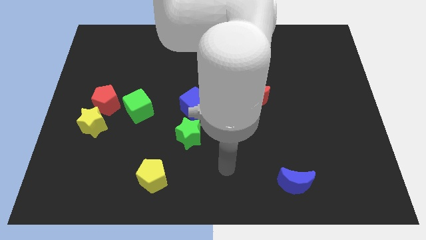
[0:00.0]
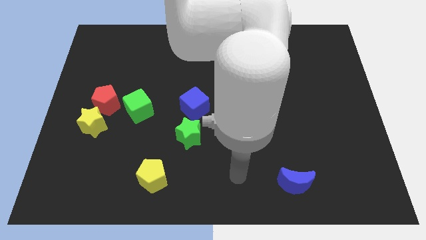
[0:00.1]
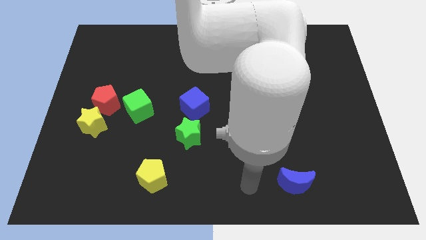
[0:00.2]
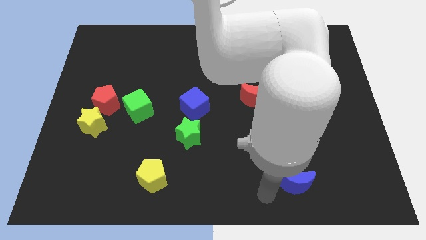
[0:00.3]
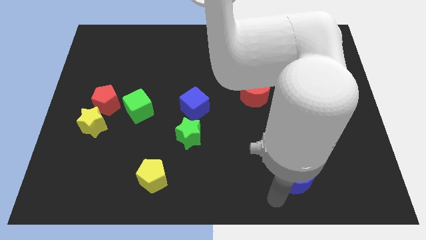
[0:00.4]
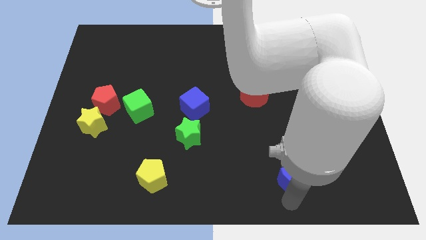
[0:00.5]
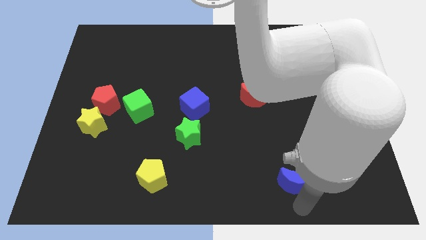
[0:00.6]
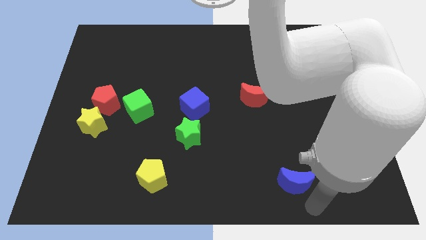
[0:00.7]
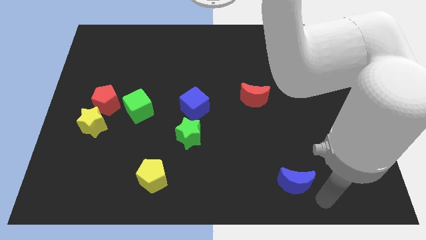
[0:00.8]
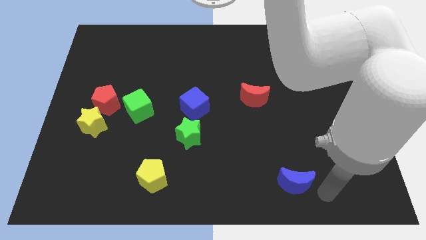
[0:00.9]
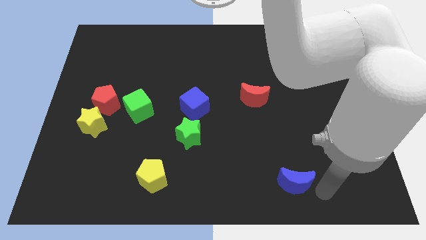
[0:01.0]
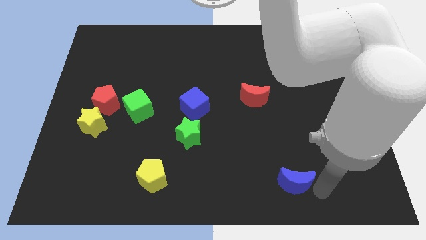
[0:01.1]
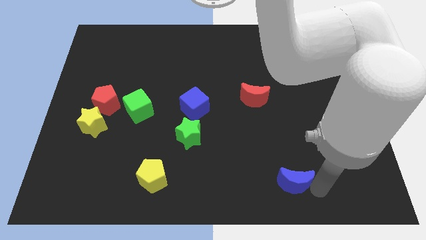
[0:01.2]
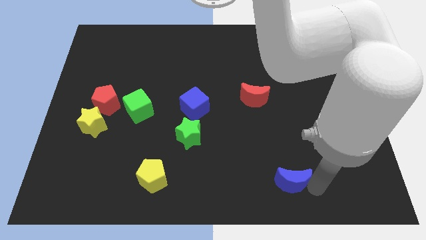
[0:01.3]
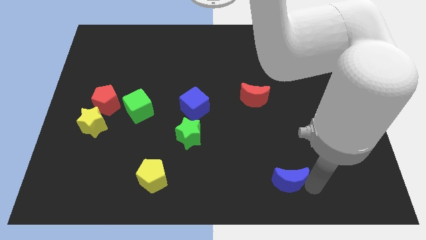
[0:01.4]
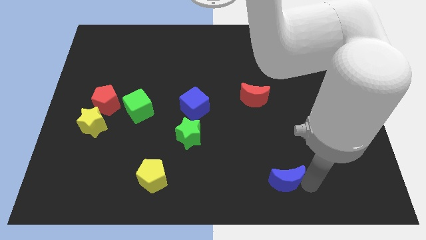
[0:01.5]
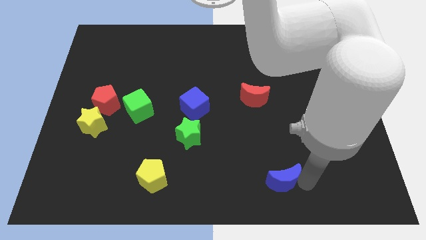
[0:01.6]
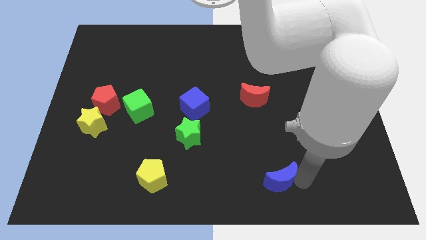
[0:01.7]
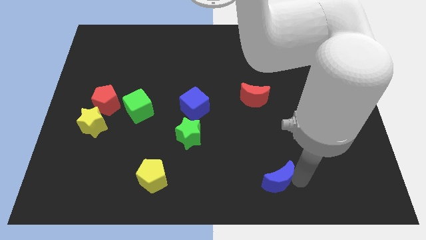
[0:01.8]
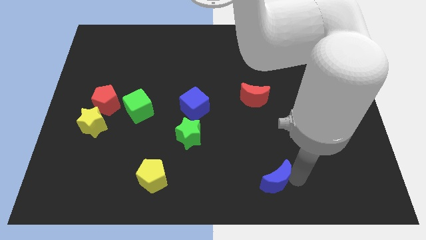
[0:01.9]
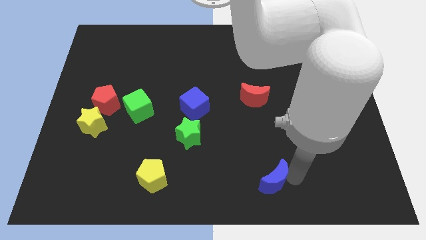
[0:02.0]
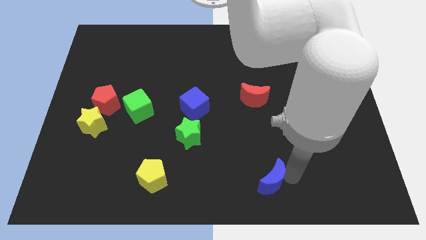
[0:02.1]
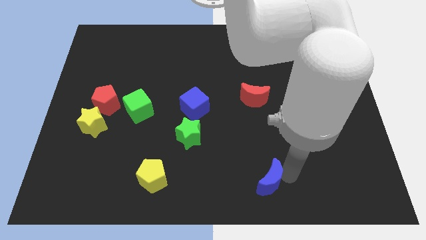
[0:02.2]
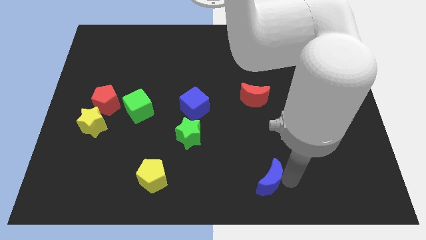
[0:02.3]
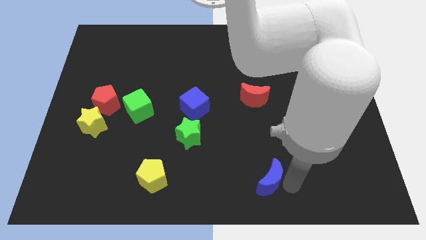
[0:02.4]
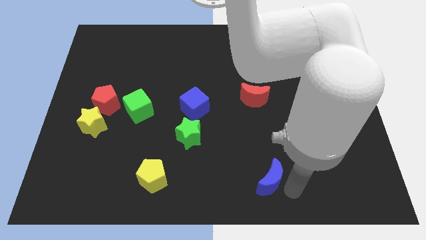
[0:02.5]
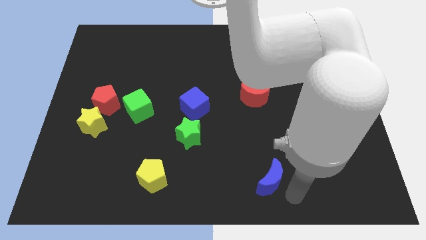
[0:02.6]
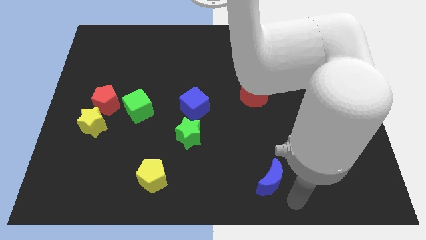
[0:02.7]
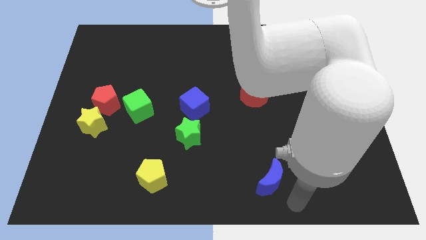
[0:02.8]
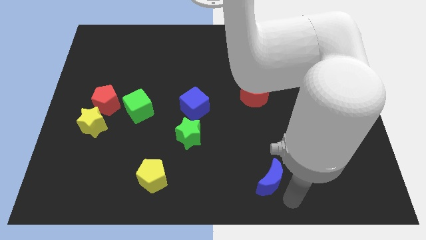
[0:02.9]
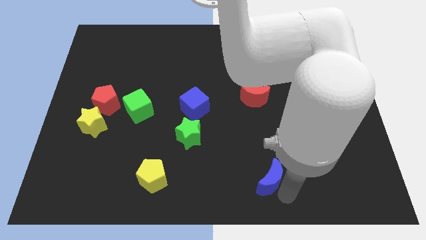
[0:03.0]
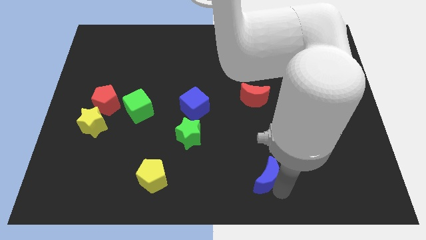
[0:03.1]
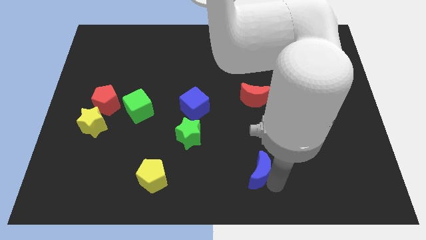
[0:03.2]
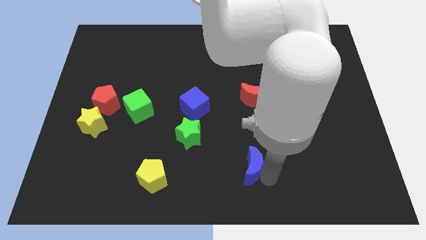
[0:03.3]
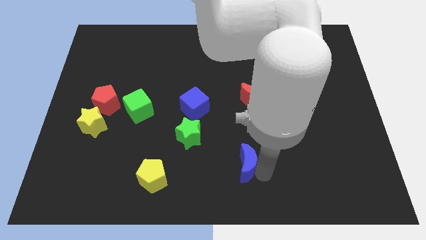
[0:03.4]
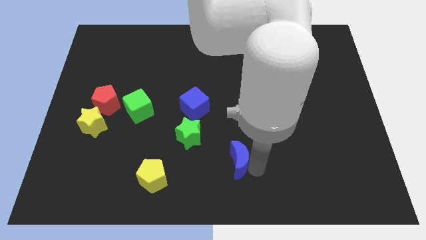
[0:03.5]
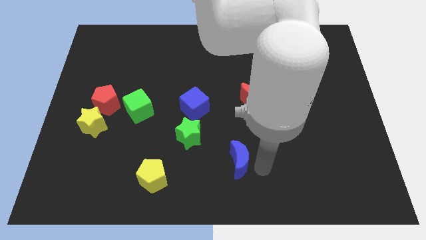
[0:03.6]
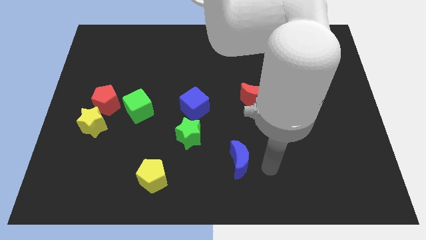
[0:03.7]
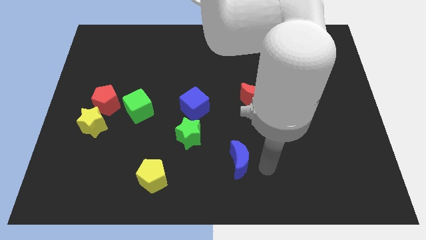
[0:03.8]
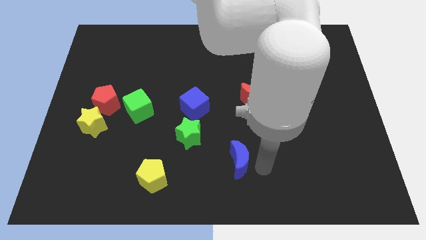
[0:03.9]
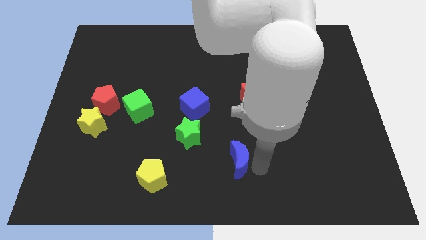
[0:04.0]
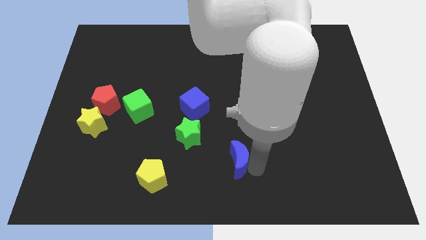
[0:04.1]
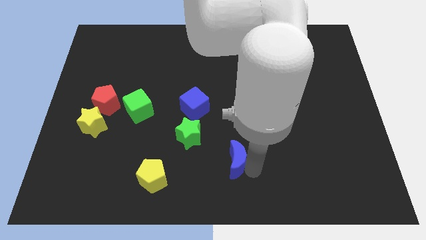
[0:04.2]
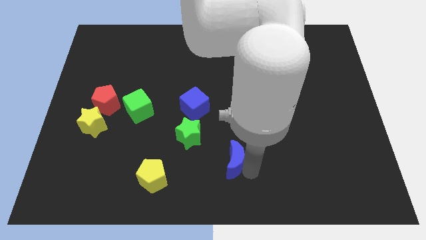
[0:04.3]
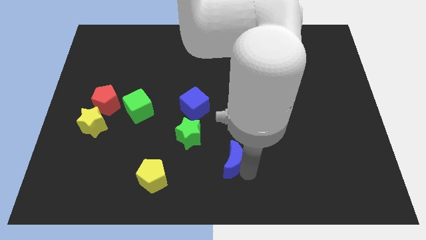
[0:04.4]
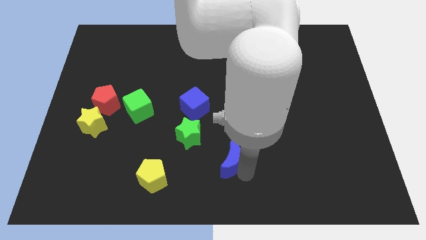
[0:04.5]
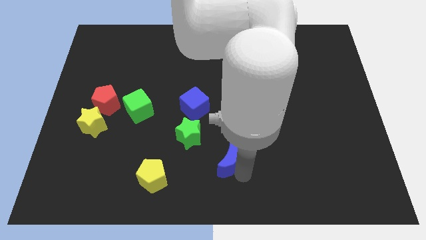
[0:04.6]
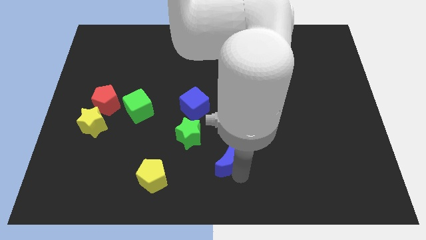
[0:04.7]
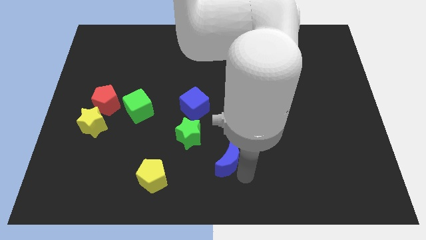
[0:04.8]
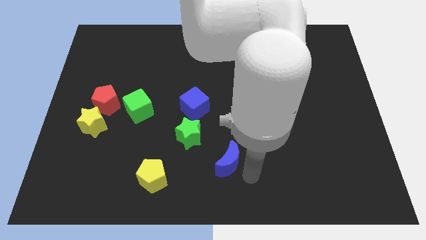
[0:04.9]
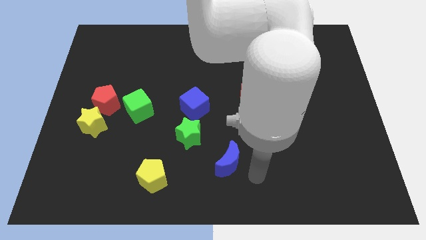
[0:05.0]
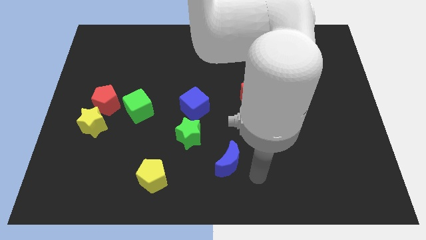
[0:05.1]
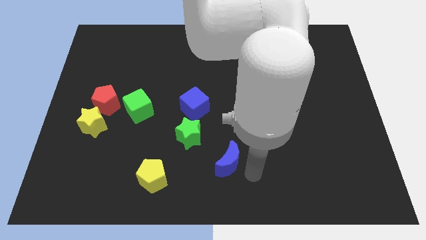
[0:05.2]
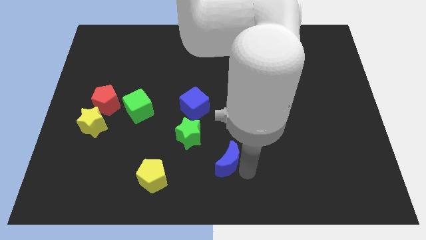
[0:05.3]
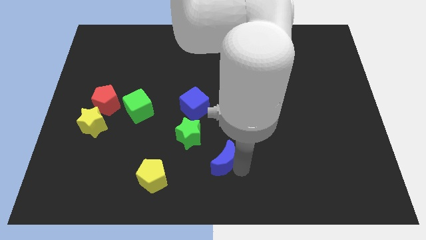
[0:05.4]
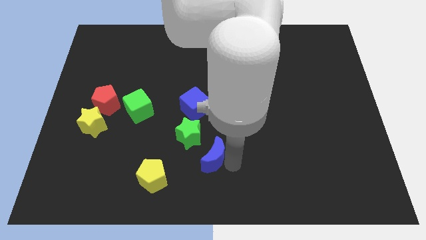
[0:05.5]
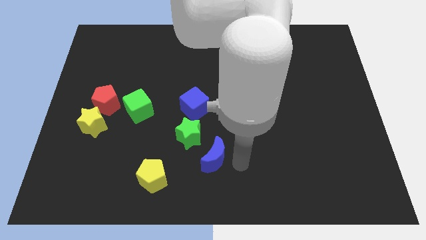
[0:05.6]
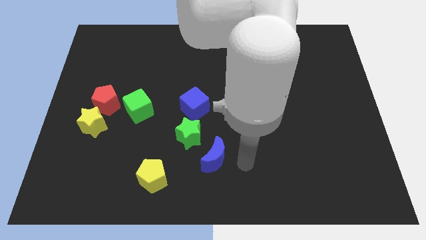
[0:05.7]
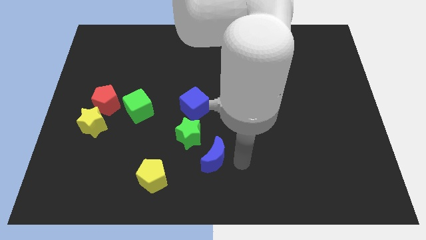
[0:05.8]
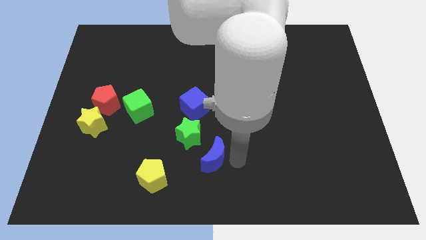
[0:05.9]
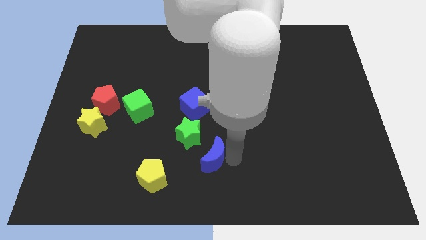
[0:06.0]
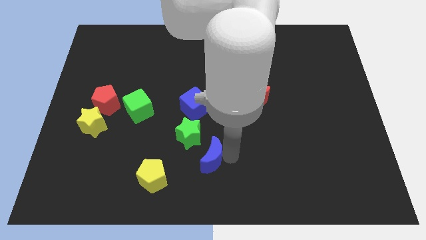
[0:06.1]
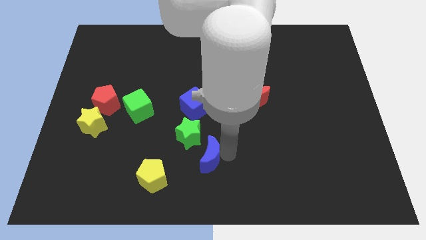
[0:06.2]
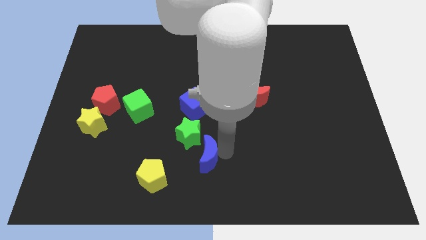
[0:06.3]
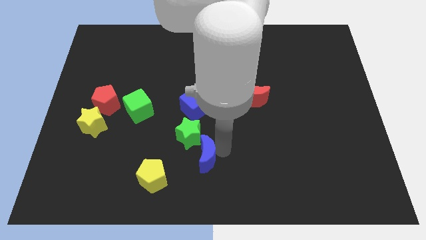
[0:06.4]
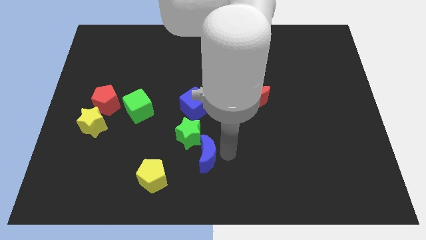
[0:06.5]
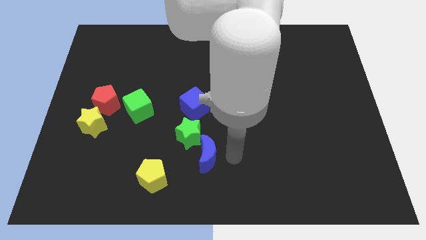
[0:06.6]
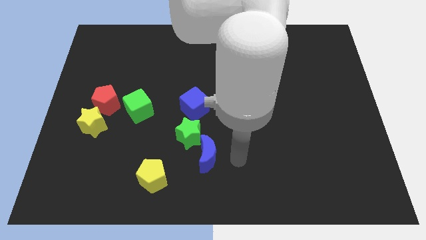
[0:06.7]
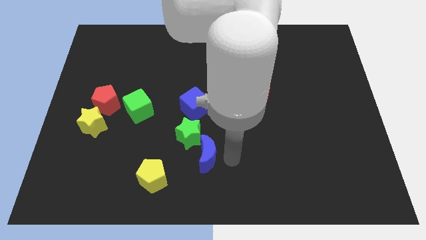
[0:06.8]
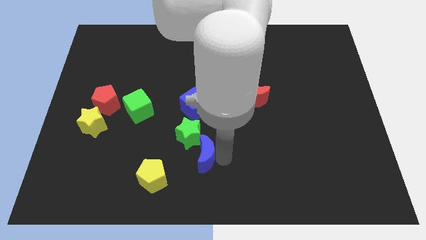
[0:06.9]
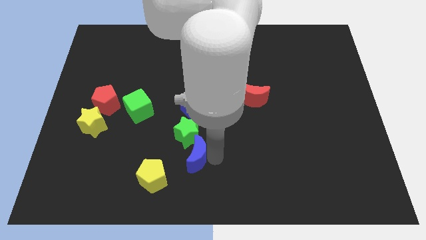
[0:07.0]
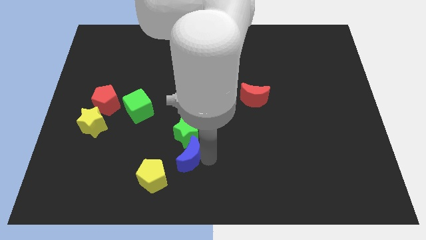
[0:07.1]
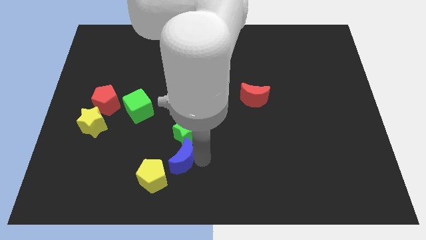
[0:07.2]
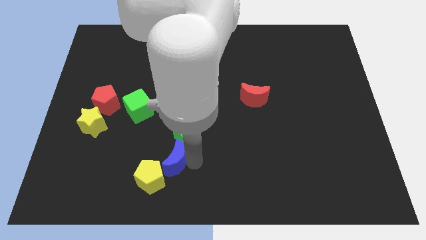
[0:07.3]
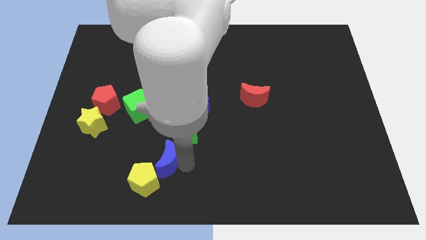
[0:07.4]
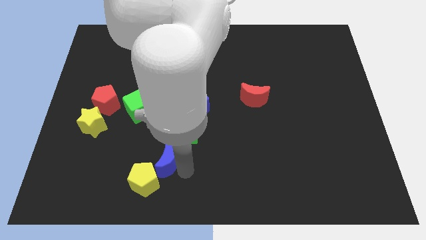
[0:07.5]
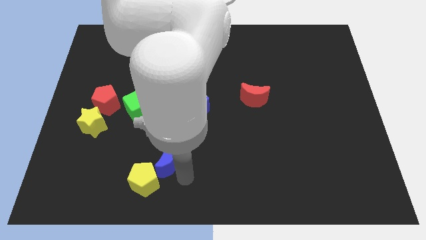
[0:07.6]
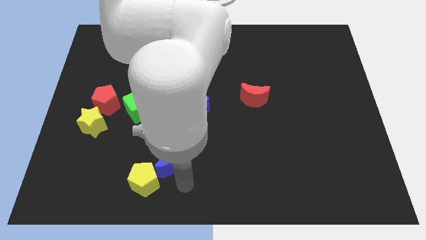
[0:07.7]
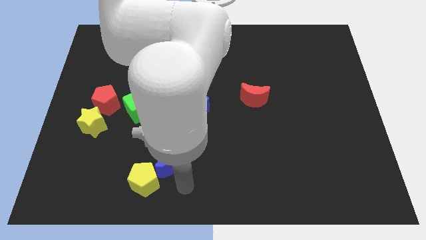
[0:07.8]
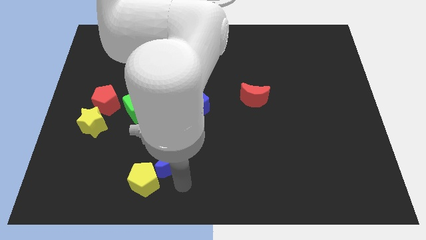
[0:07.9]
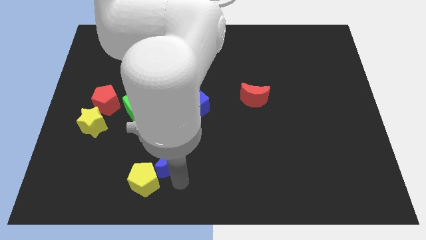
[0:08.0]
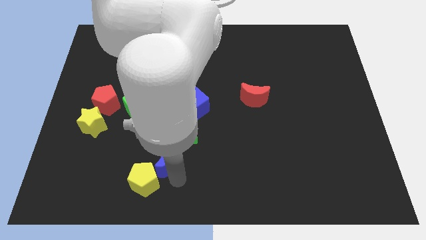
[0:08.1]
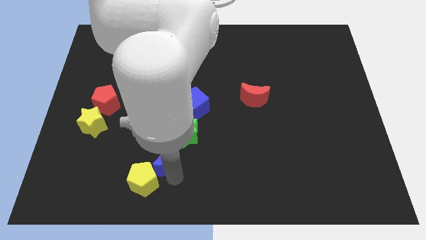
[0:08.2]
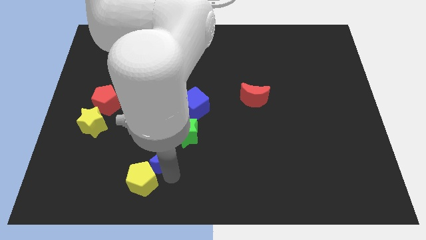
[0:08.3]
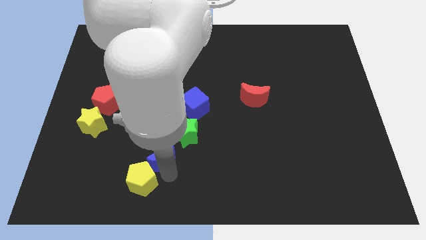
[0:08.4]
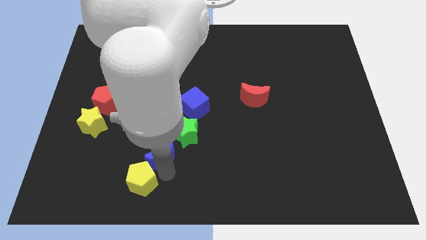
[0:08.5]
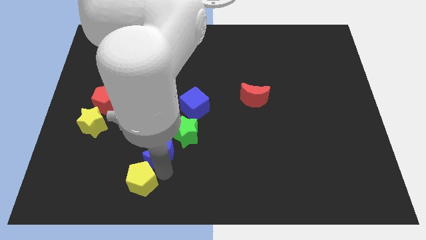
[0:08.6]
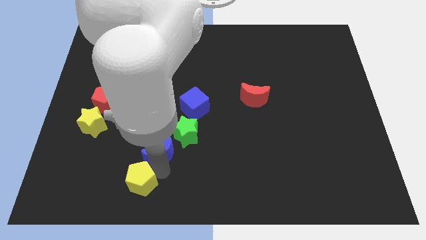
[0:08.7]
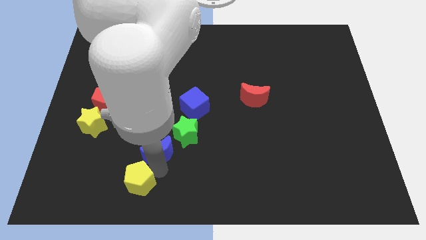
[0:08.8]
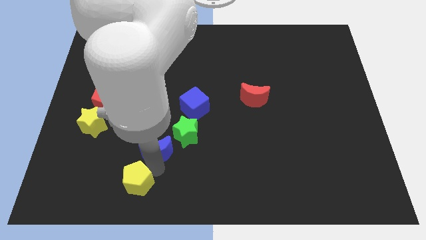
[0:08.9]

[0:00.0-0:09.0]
move the blue moon to the left of the green star
